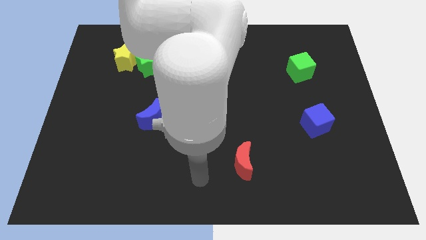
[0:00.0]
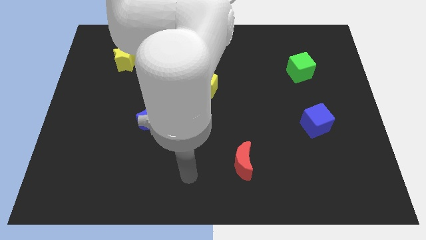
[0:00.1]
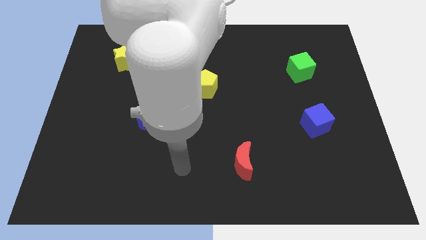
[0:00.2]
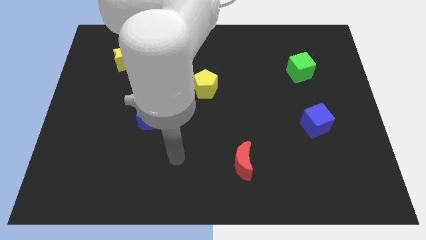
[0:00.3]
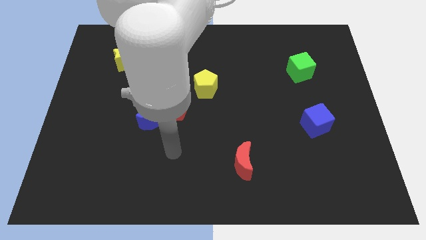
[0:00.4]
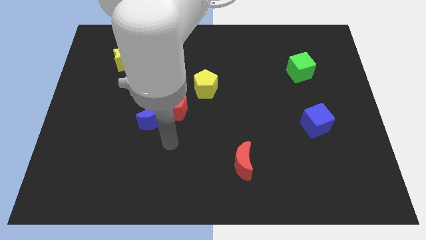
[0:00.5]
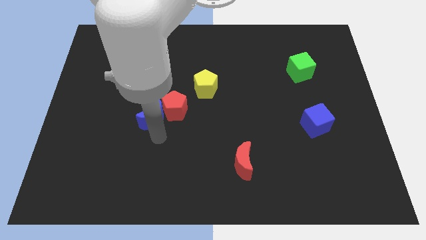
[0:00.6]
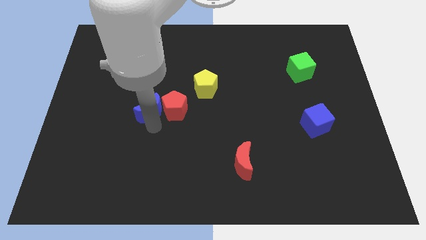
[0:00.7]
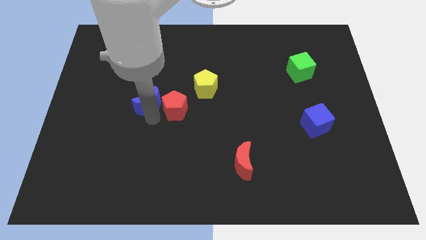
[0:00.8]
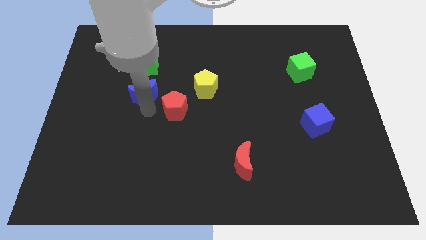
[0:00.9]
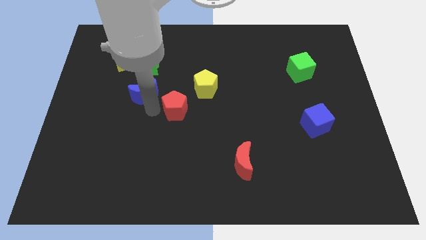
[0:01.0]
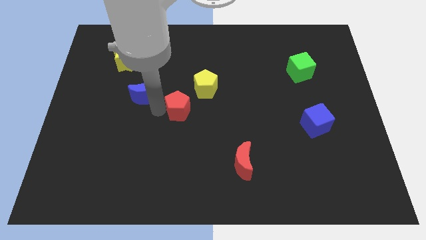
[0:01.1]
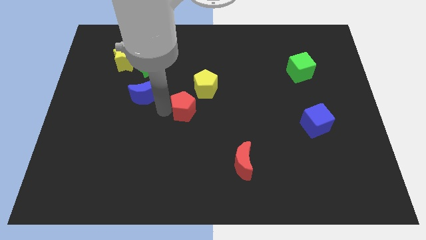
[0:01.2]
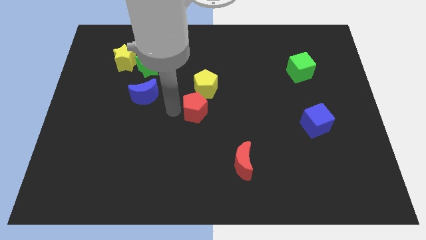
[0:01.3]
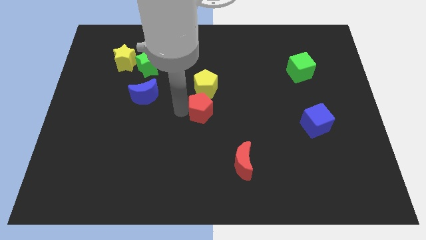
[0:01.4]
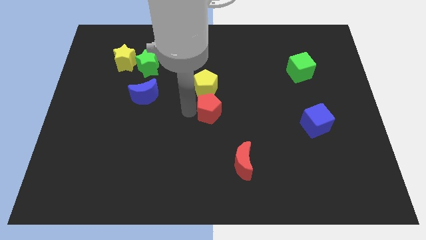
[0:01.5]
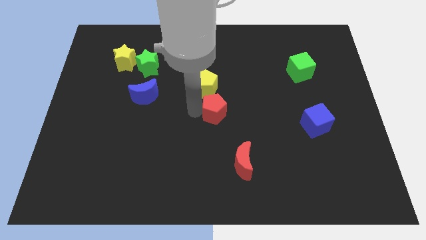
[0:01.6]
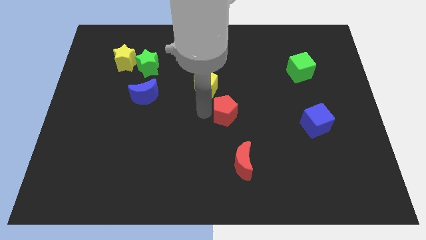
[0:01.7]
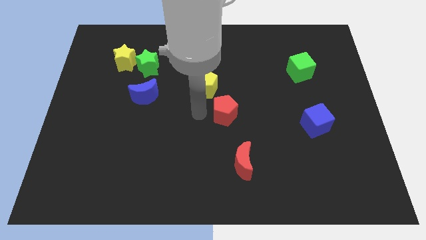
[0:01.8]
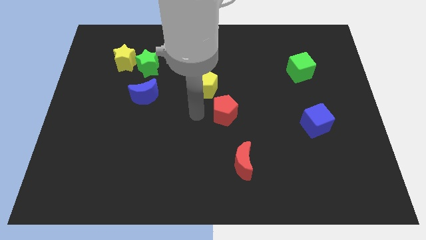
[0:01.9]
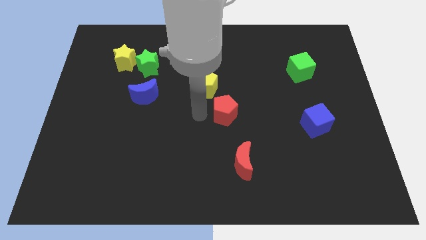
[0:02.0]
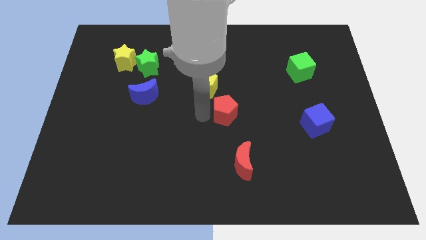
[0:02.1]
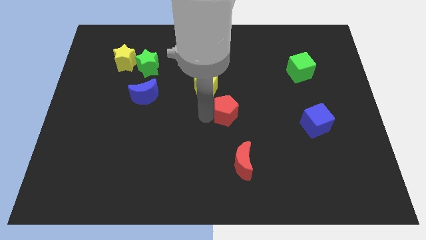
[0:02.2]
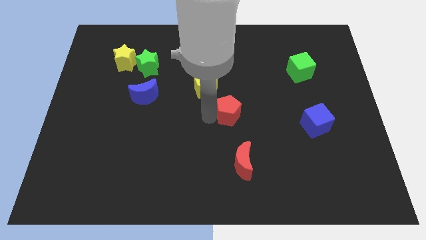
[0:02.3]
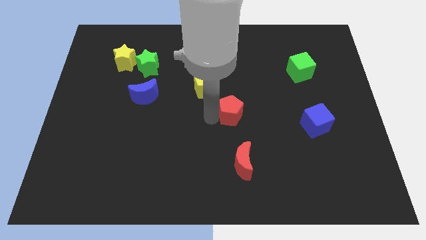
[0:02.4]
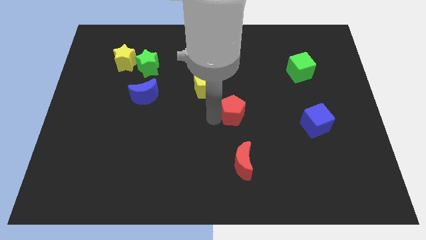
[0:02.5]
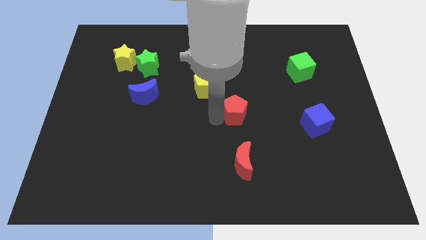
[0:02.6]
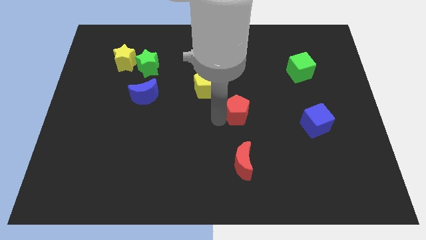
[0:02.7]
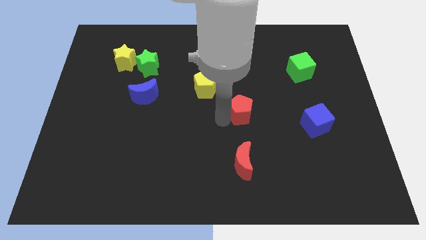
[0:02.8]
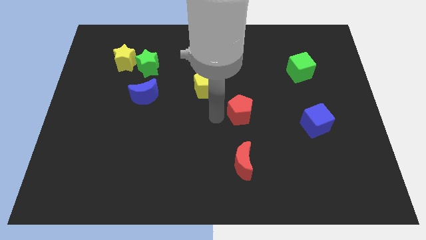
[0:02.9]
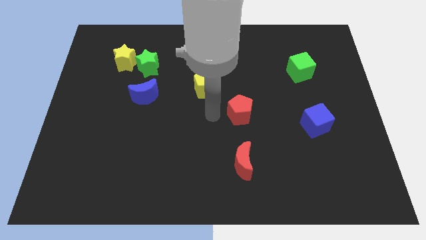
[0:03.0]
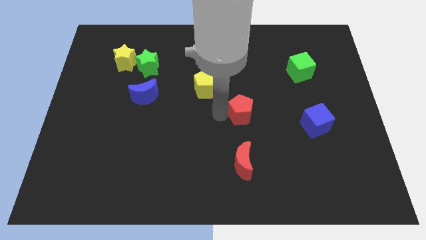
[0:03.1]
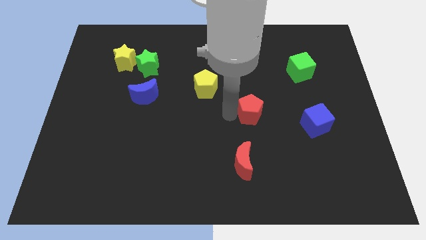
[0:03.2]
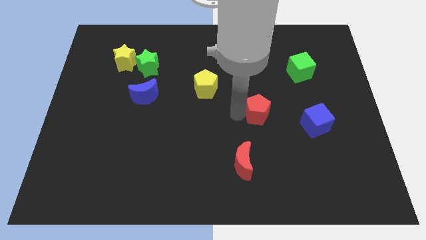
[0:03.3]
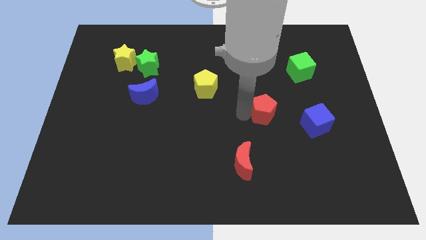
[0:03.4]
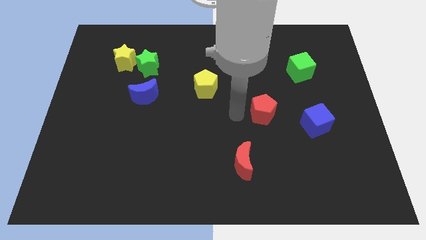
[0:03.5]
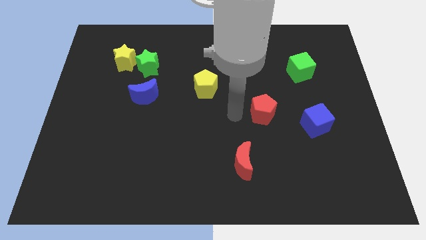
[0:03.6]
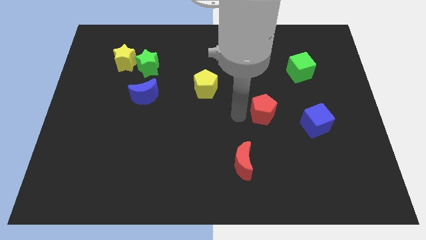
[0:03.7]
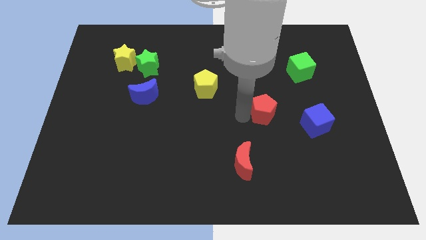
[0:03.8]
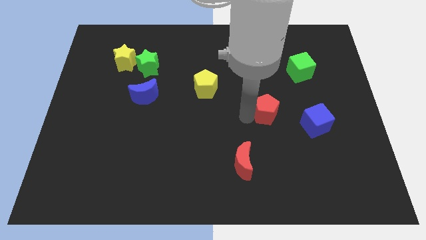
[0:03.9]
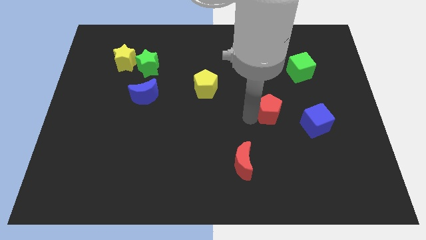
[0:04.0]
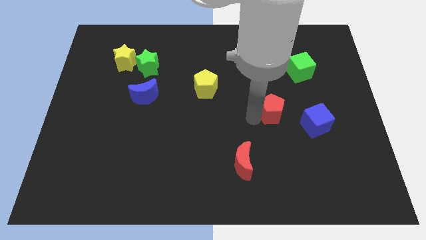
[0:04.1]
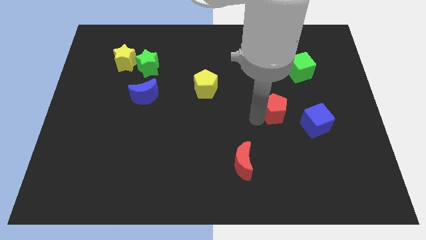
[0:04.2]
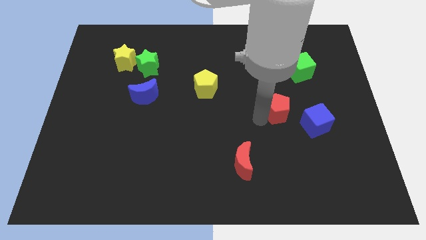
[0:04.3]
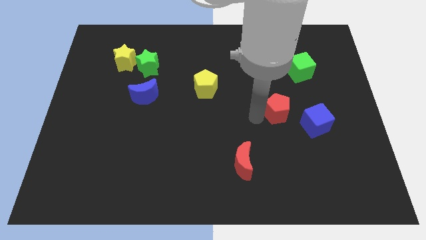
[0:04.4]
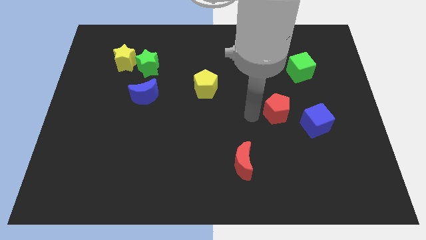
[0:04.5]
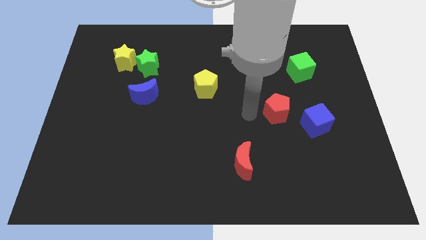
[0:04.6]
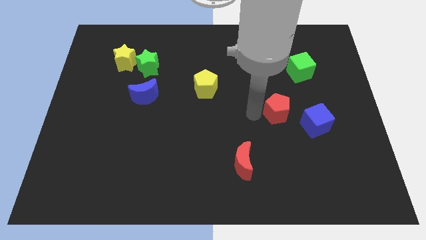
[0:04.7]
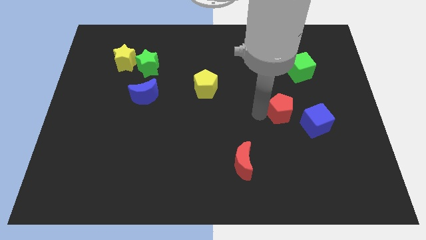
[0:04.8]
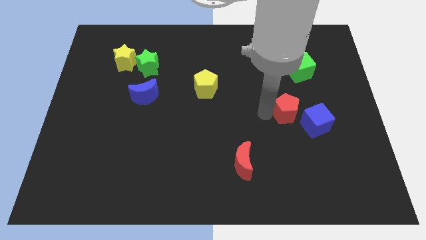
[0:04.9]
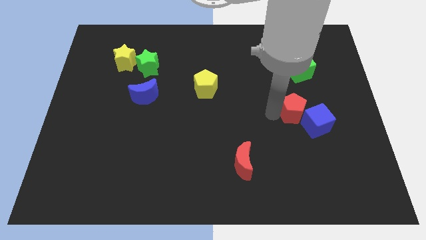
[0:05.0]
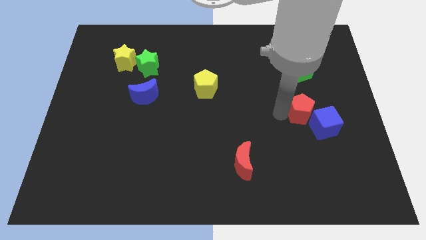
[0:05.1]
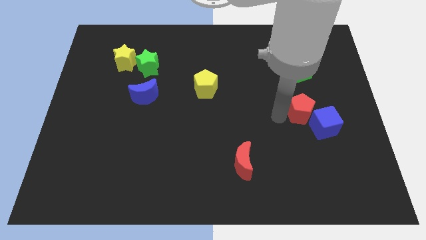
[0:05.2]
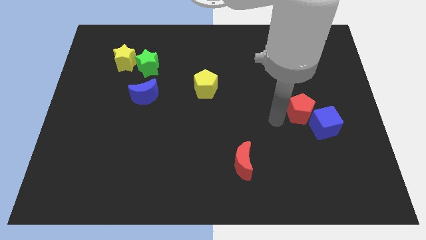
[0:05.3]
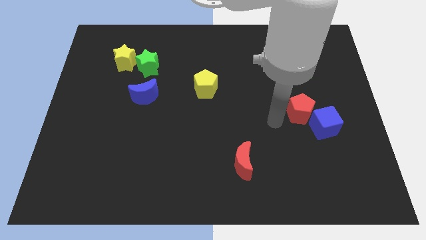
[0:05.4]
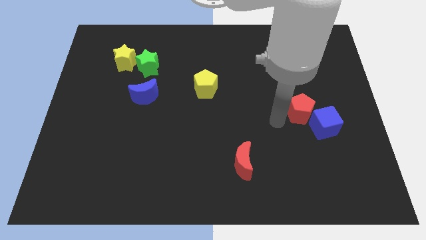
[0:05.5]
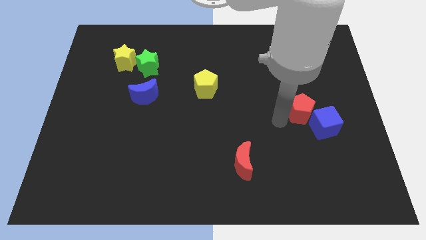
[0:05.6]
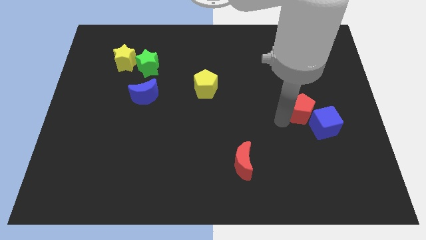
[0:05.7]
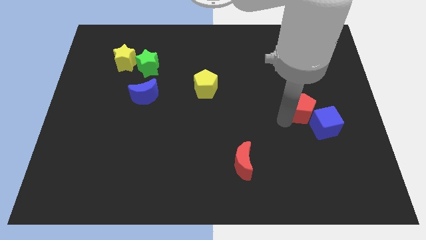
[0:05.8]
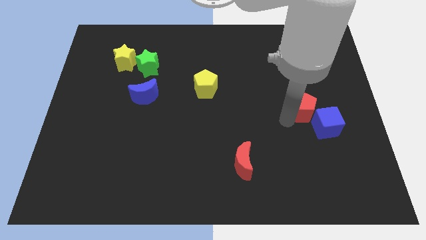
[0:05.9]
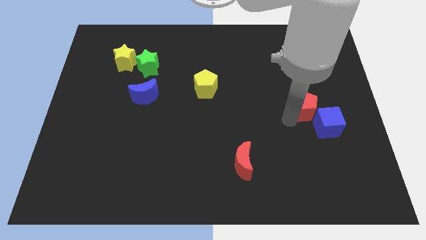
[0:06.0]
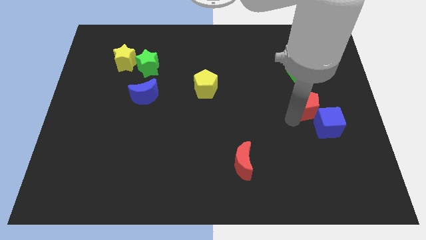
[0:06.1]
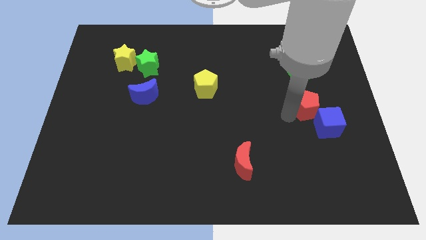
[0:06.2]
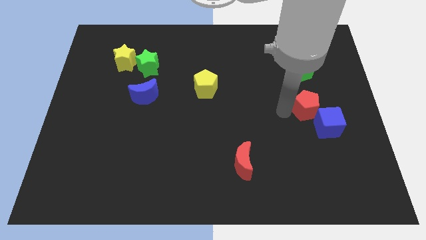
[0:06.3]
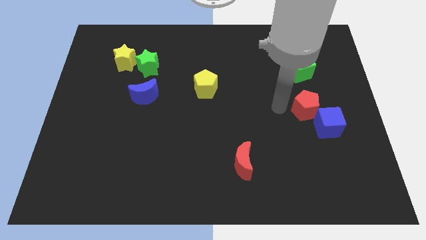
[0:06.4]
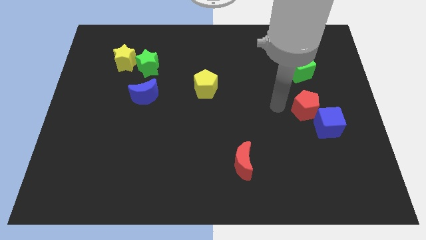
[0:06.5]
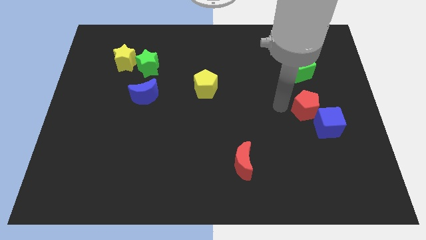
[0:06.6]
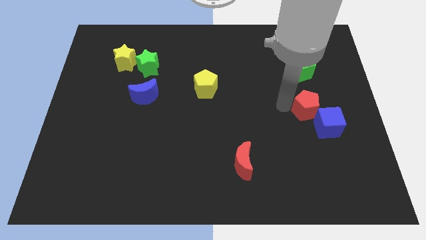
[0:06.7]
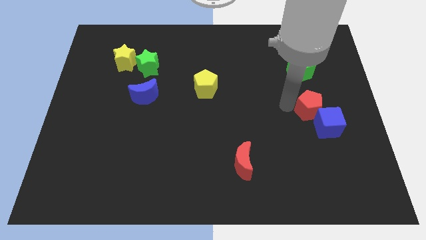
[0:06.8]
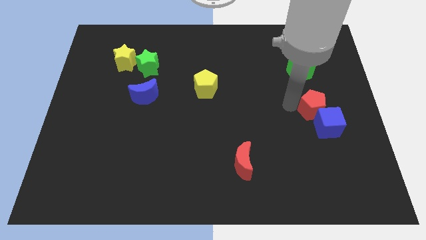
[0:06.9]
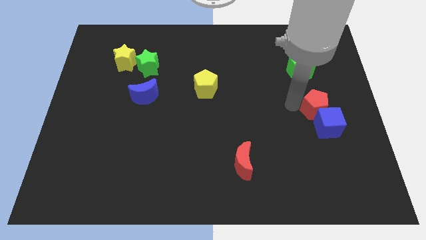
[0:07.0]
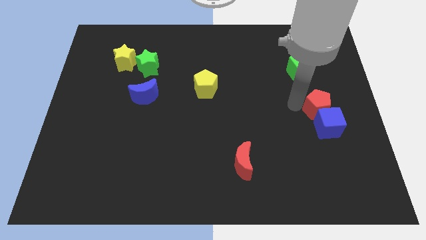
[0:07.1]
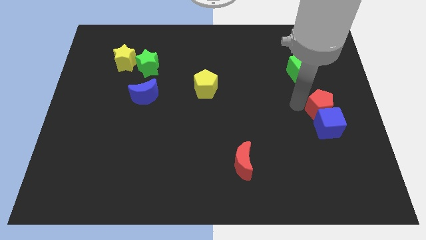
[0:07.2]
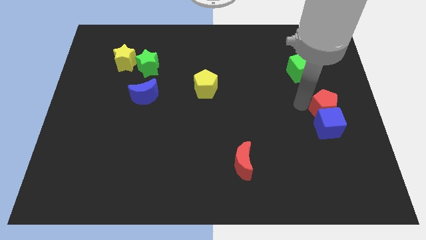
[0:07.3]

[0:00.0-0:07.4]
put the red pentagon to the right side
